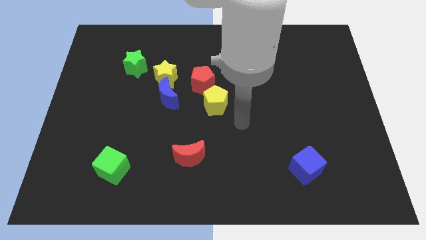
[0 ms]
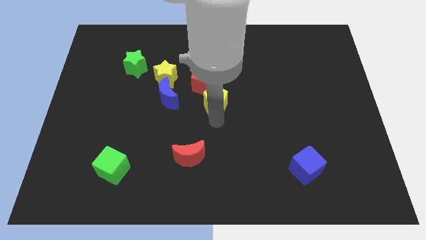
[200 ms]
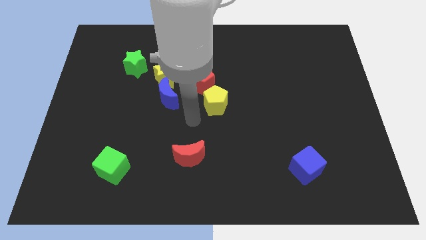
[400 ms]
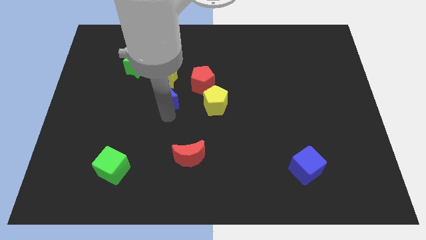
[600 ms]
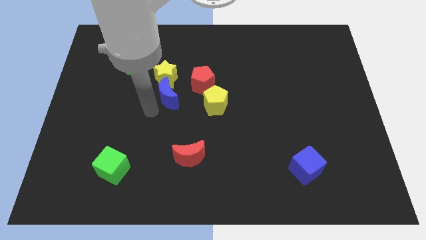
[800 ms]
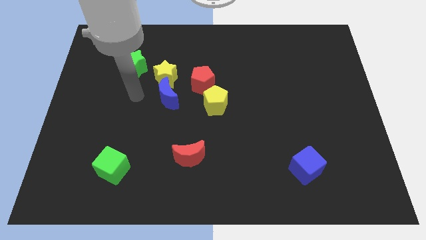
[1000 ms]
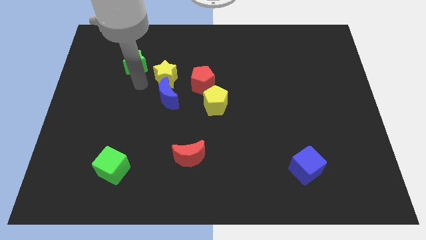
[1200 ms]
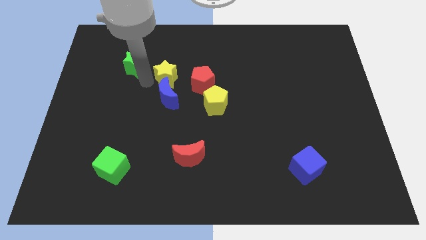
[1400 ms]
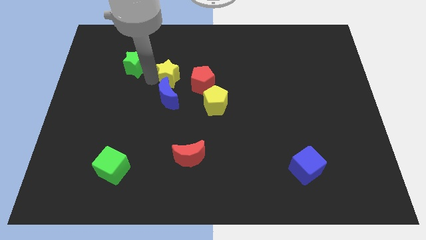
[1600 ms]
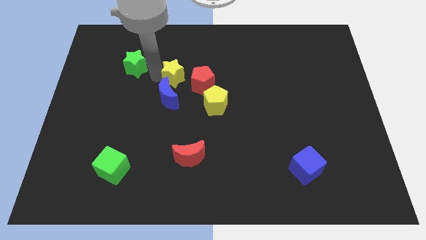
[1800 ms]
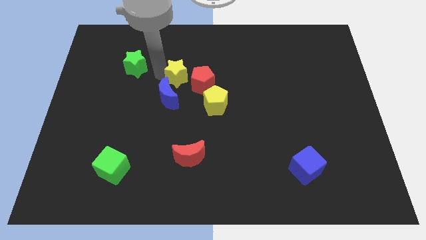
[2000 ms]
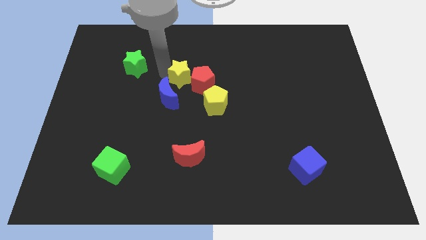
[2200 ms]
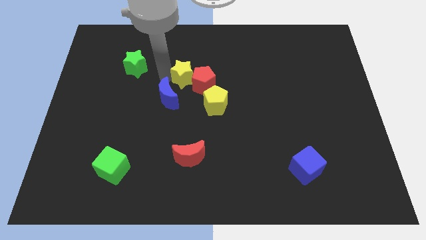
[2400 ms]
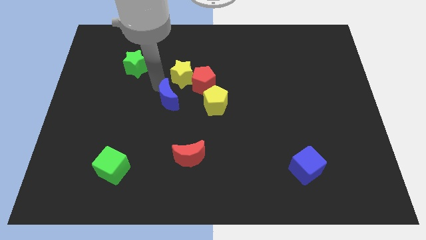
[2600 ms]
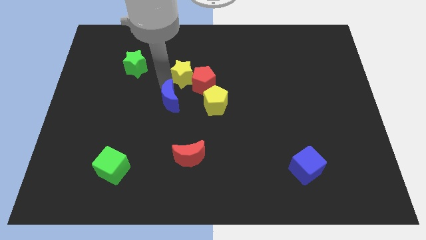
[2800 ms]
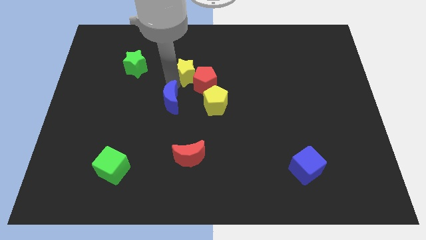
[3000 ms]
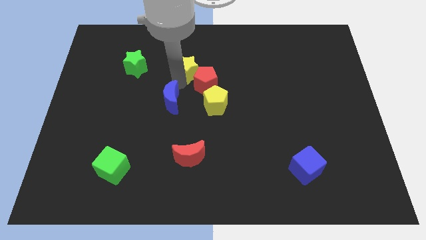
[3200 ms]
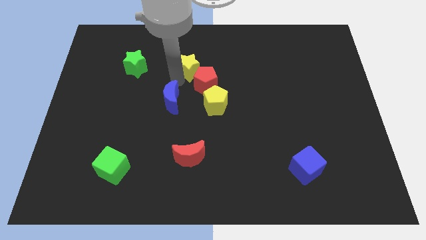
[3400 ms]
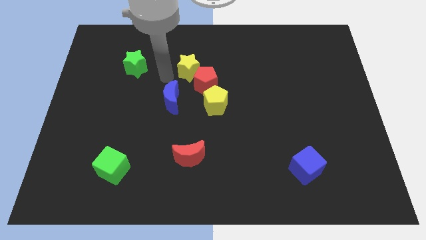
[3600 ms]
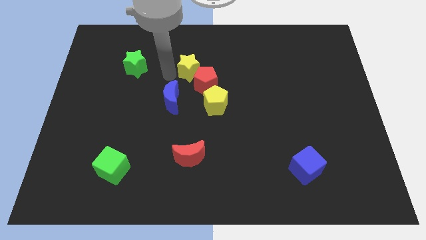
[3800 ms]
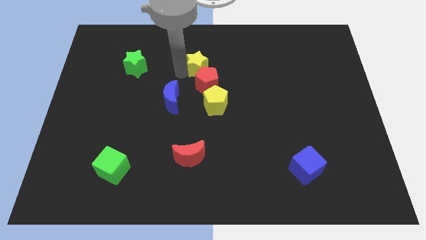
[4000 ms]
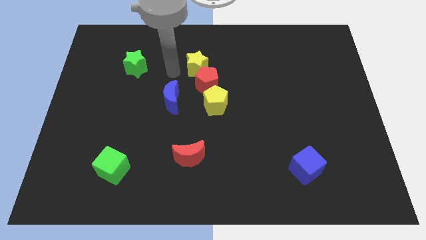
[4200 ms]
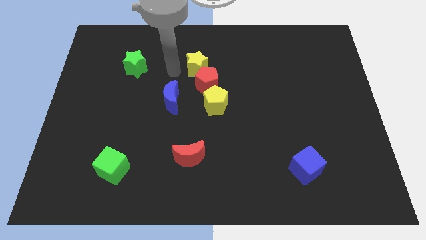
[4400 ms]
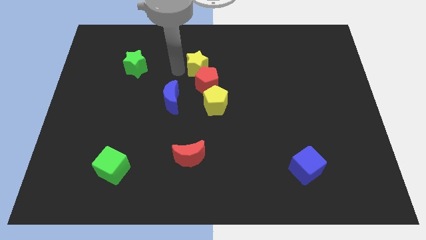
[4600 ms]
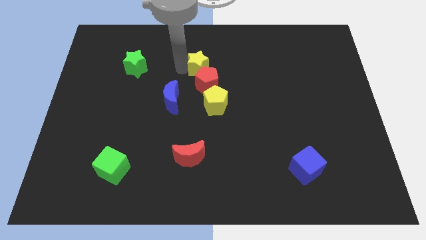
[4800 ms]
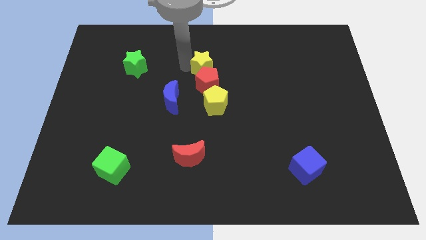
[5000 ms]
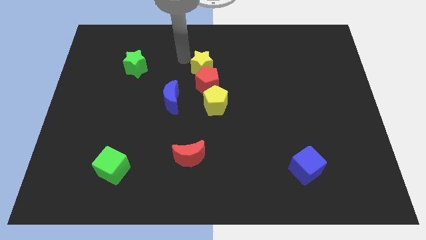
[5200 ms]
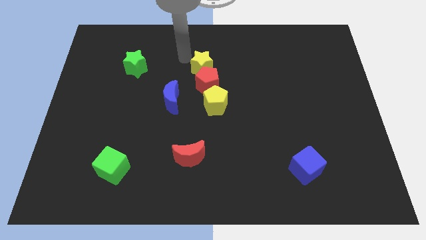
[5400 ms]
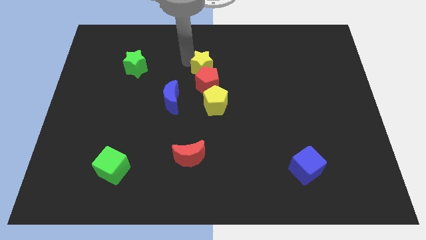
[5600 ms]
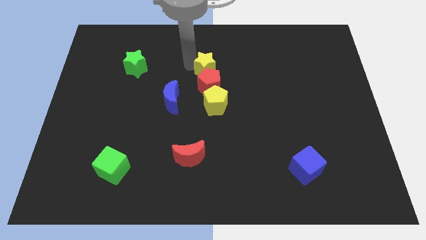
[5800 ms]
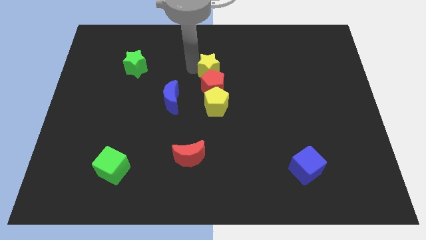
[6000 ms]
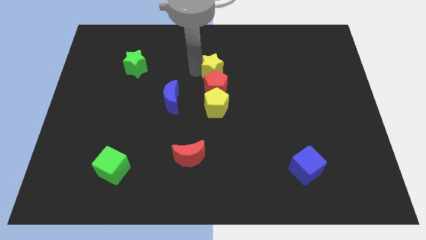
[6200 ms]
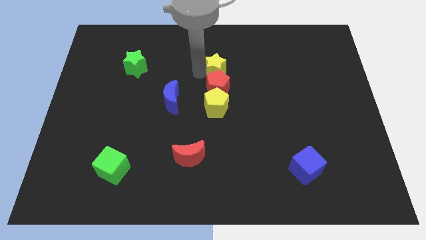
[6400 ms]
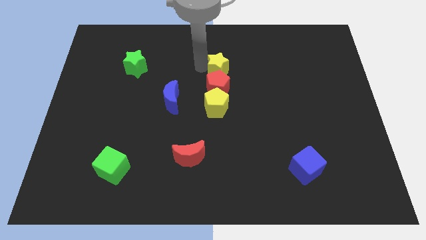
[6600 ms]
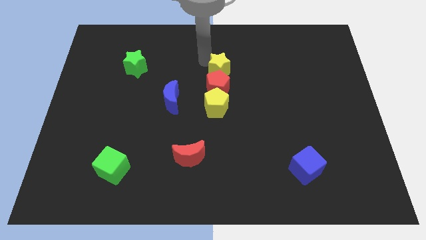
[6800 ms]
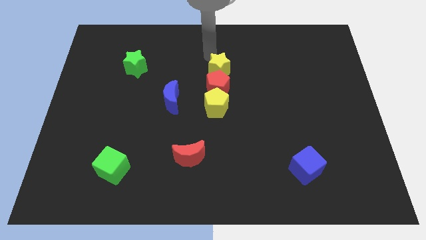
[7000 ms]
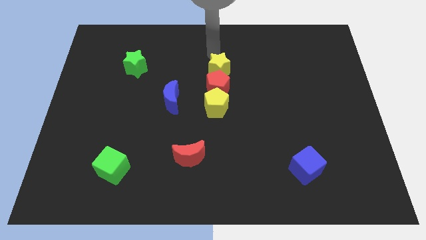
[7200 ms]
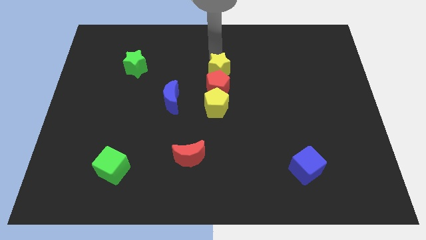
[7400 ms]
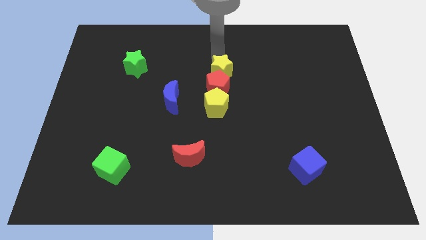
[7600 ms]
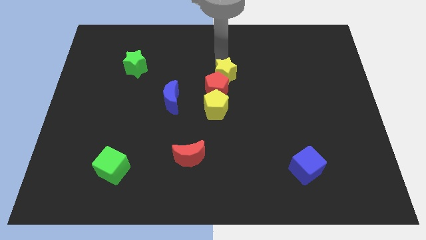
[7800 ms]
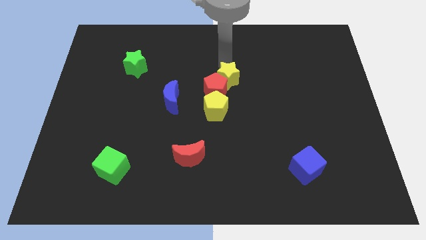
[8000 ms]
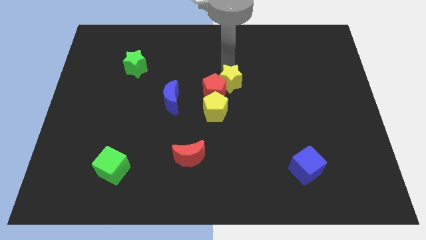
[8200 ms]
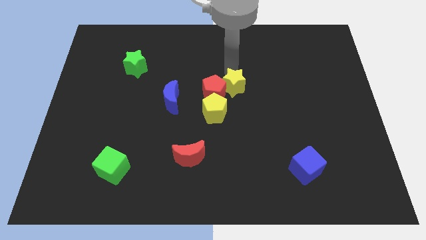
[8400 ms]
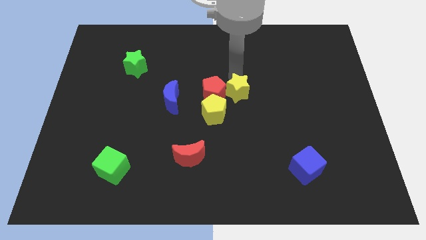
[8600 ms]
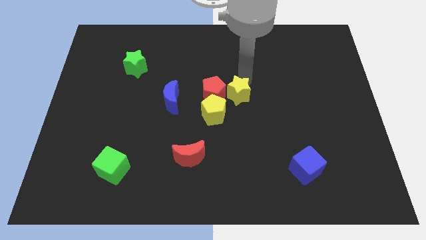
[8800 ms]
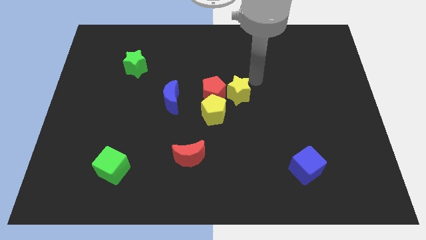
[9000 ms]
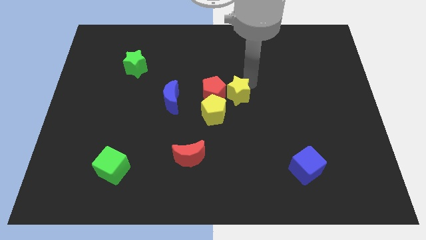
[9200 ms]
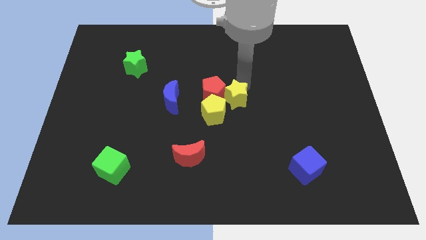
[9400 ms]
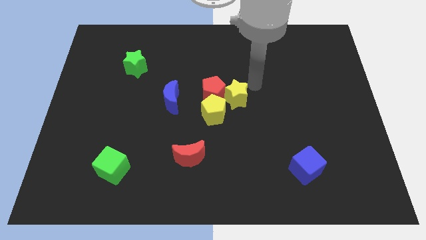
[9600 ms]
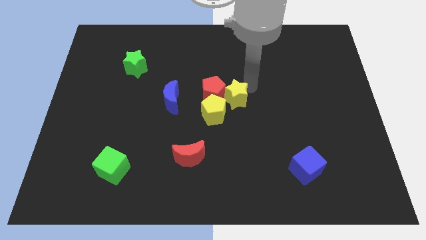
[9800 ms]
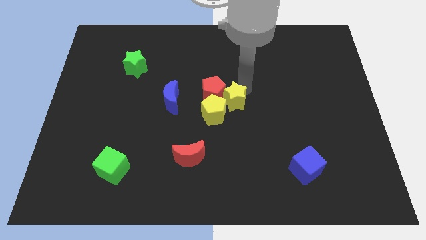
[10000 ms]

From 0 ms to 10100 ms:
push the yellow star close to the yellow pentagon

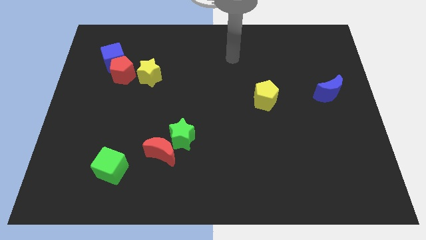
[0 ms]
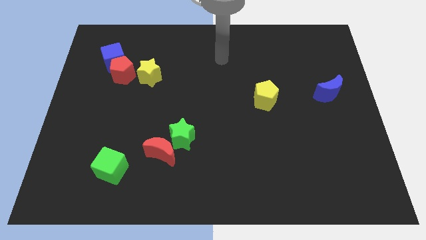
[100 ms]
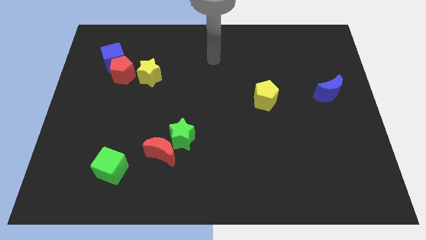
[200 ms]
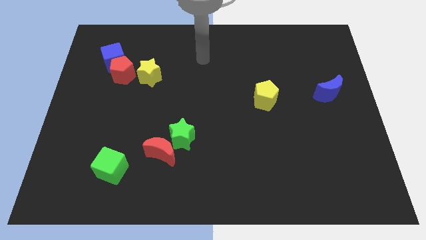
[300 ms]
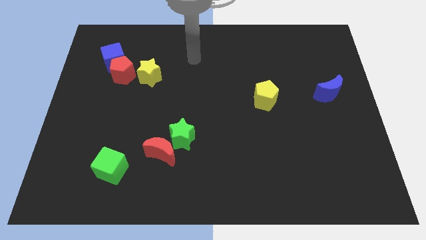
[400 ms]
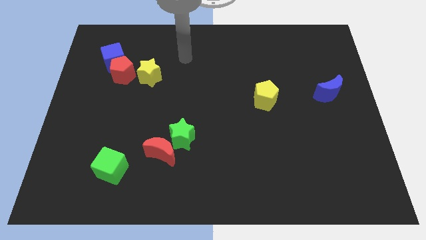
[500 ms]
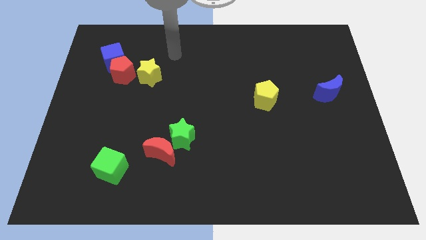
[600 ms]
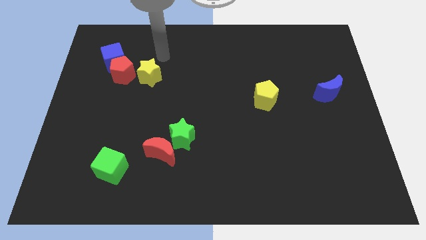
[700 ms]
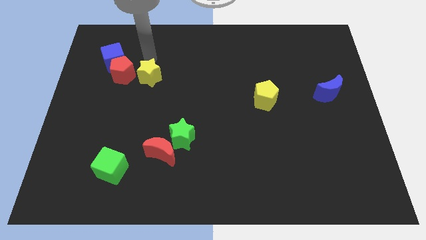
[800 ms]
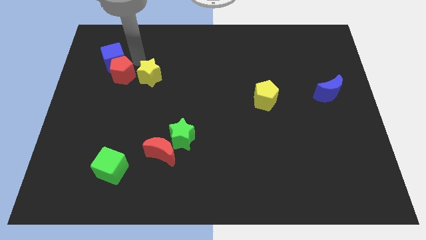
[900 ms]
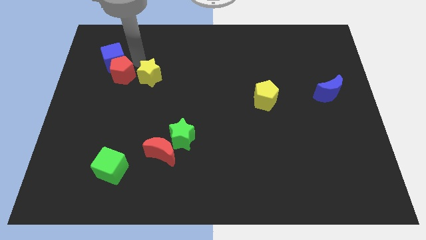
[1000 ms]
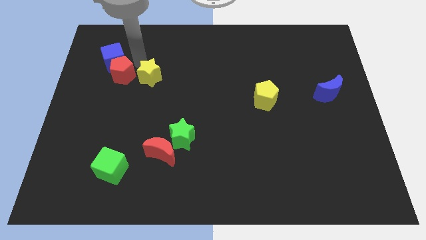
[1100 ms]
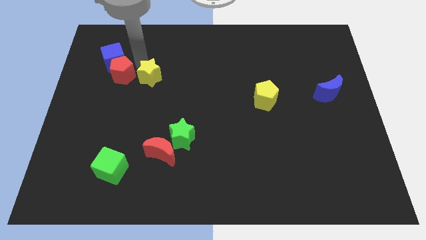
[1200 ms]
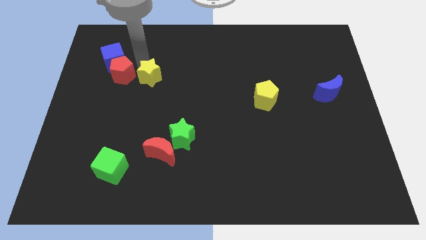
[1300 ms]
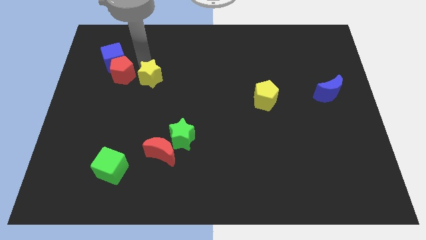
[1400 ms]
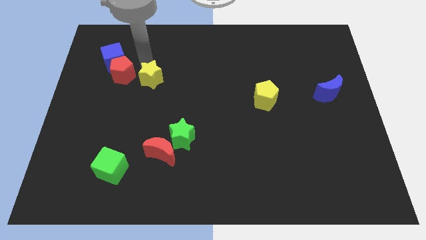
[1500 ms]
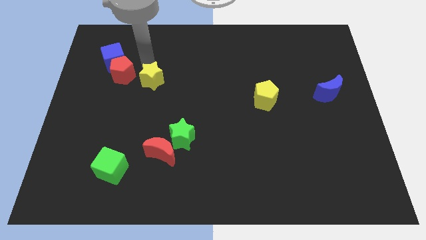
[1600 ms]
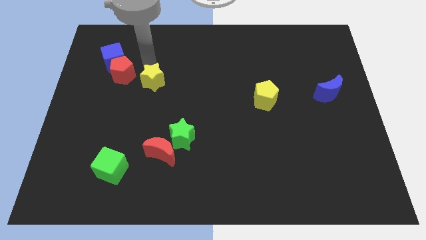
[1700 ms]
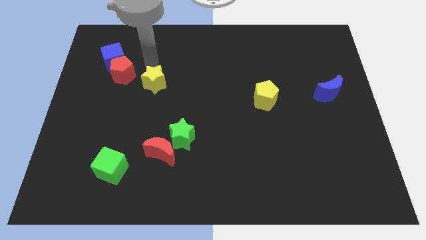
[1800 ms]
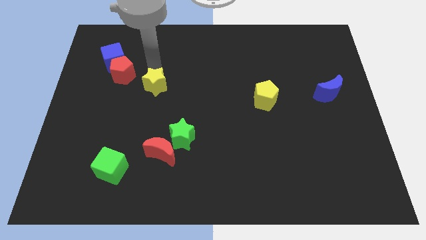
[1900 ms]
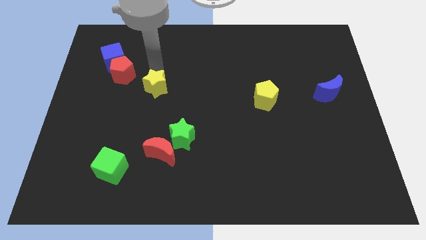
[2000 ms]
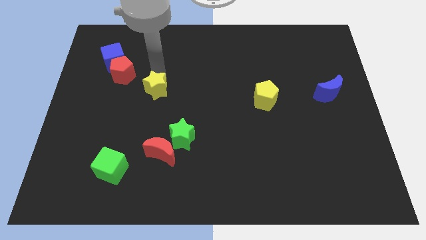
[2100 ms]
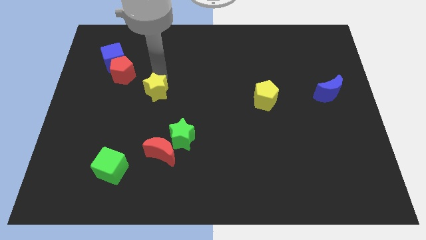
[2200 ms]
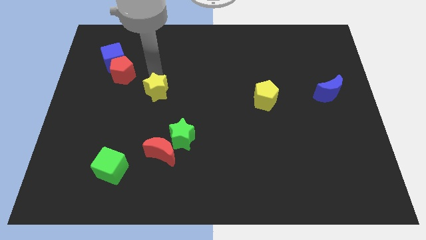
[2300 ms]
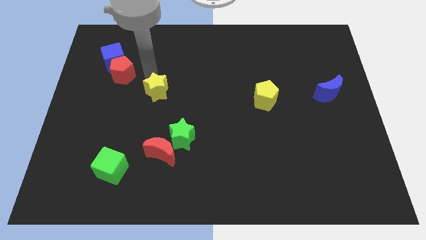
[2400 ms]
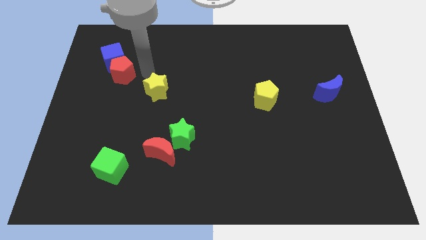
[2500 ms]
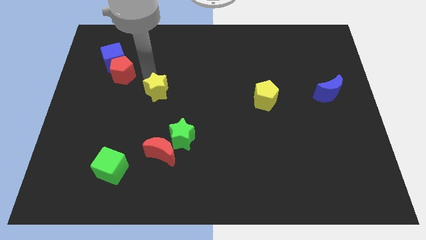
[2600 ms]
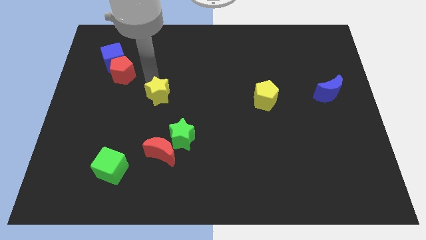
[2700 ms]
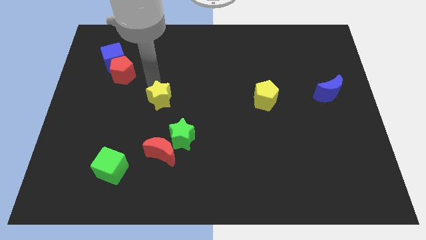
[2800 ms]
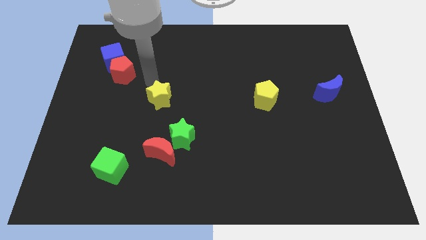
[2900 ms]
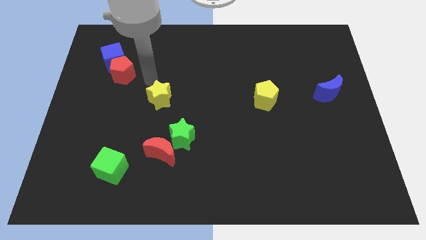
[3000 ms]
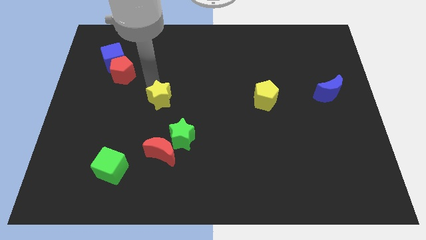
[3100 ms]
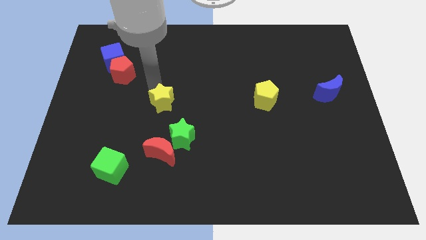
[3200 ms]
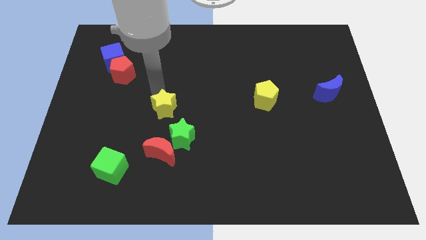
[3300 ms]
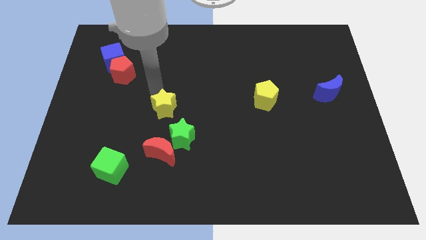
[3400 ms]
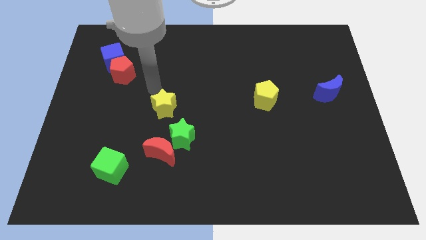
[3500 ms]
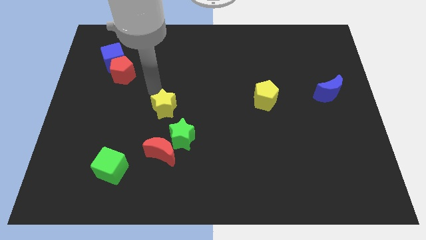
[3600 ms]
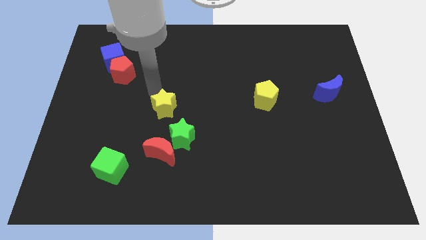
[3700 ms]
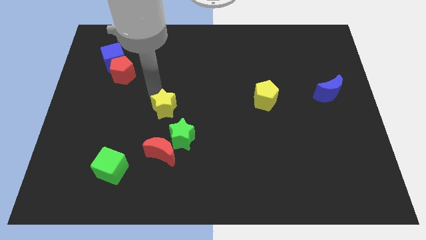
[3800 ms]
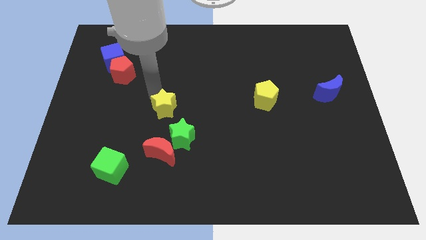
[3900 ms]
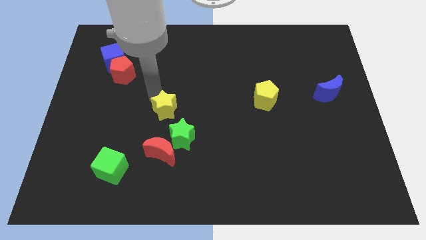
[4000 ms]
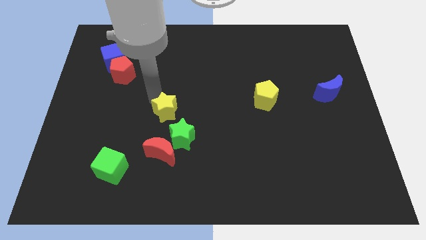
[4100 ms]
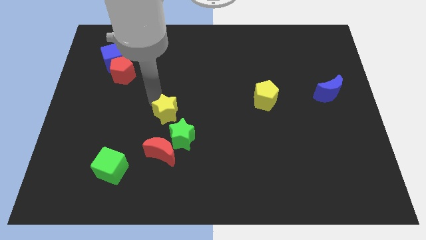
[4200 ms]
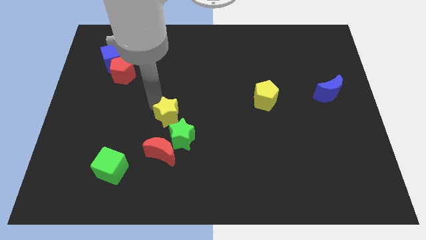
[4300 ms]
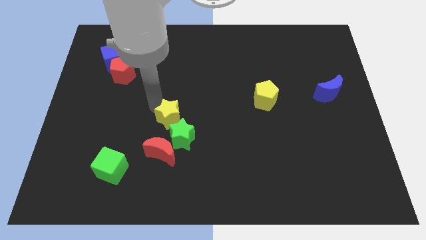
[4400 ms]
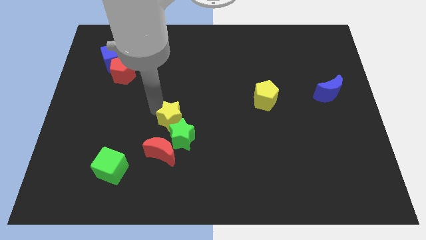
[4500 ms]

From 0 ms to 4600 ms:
slide the yellow star towards the green star
